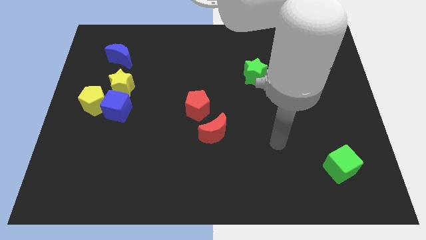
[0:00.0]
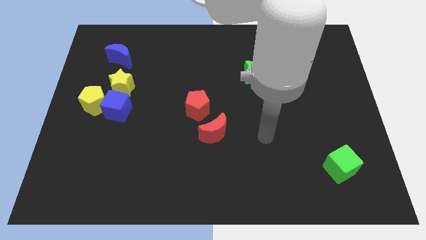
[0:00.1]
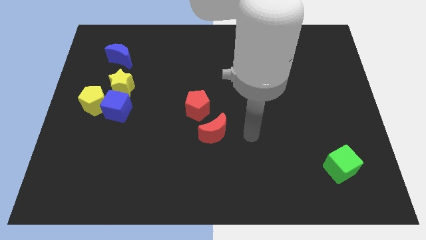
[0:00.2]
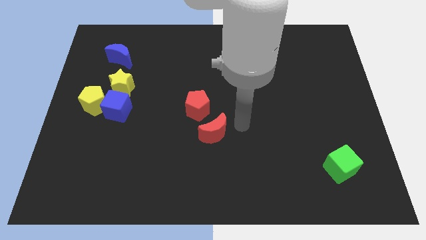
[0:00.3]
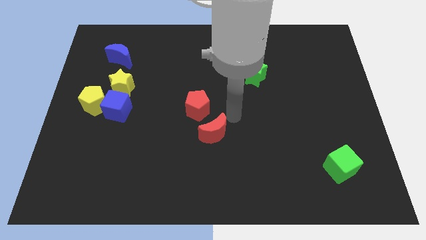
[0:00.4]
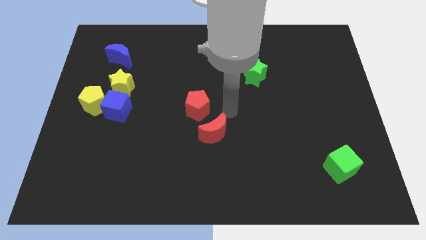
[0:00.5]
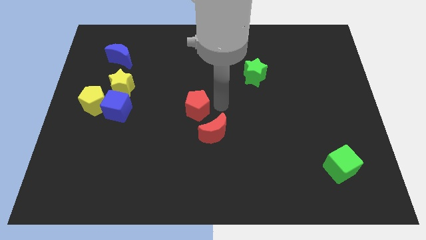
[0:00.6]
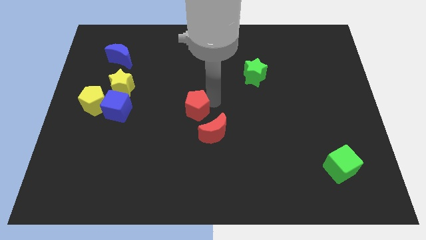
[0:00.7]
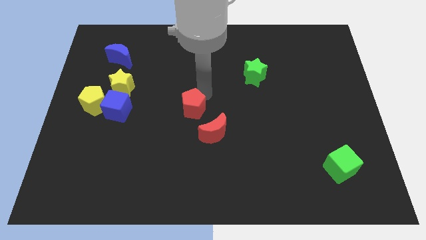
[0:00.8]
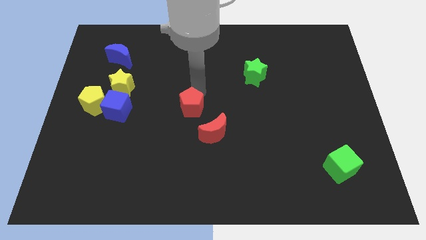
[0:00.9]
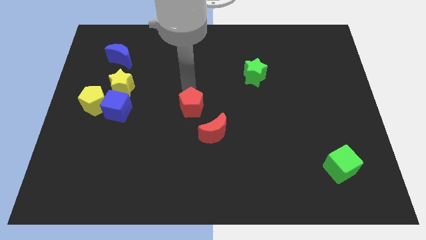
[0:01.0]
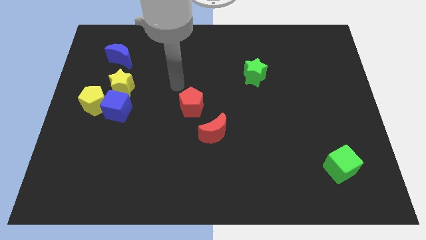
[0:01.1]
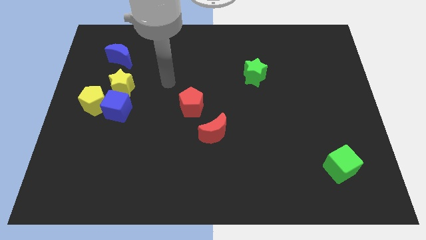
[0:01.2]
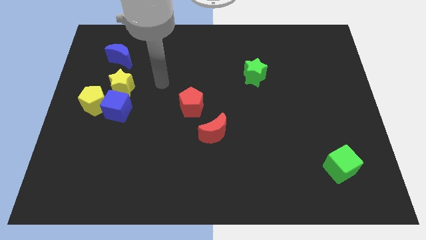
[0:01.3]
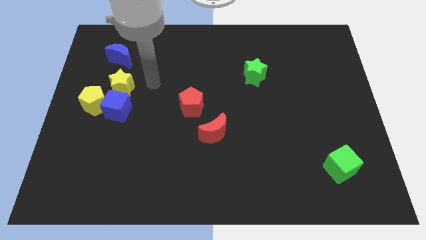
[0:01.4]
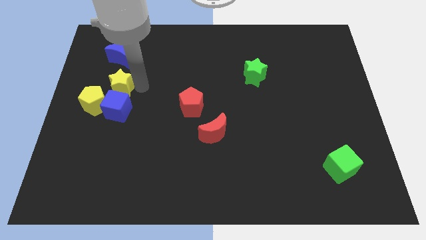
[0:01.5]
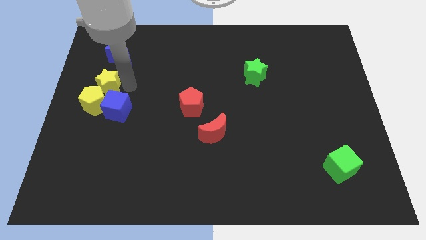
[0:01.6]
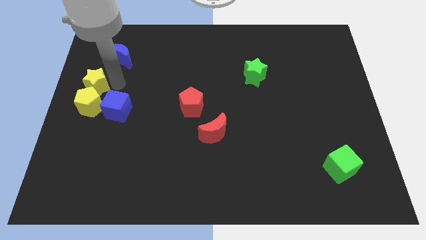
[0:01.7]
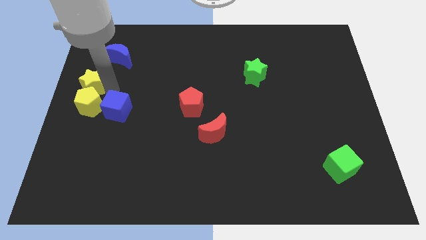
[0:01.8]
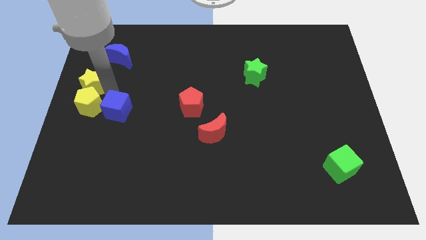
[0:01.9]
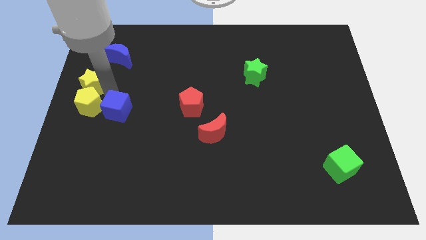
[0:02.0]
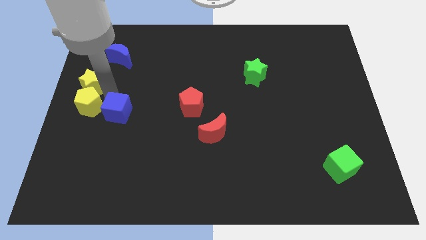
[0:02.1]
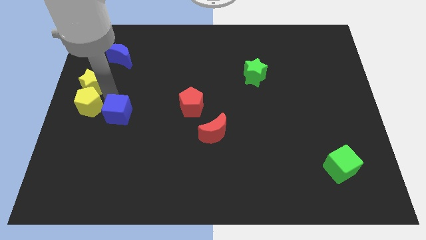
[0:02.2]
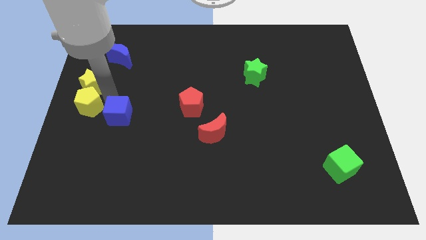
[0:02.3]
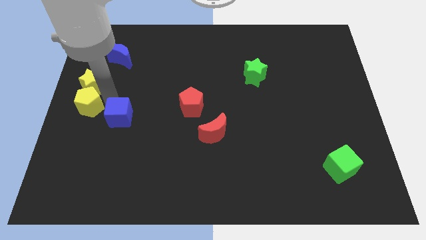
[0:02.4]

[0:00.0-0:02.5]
separate the blue cube from the yellow pentagon and yellow star

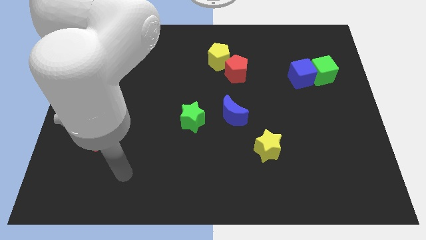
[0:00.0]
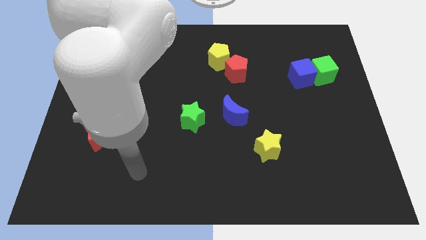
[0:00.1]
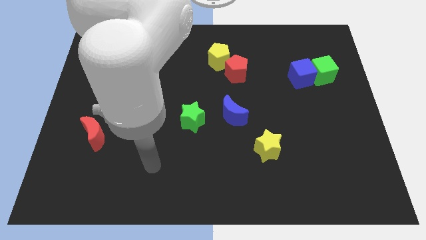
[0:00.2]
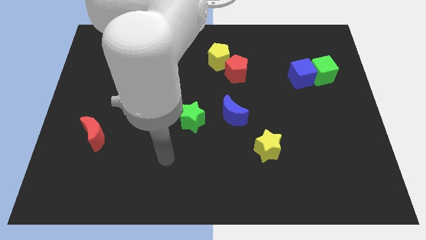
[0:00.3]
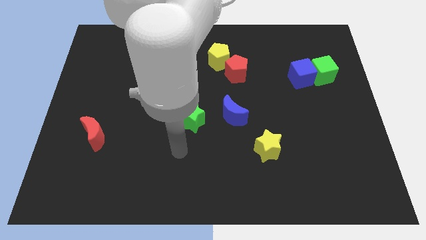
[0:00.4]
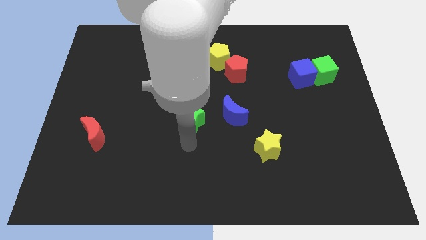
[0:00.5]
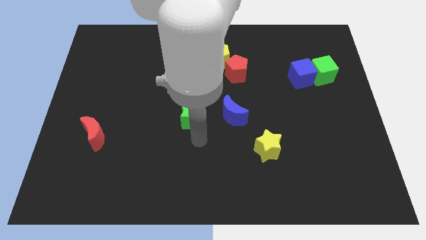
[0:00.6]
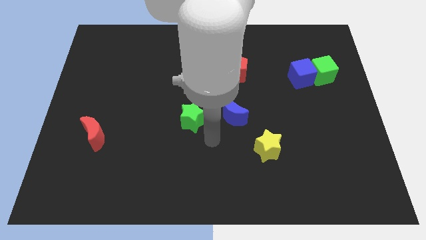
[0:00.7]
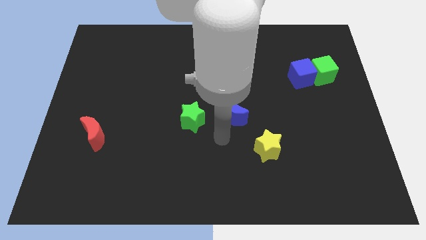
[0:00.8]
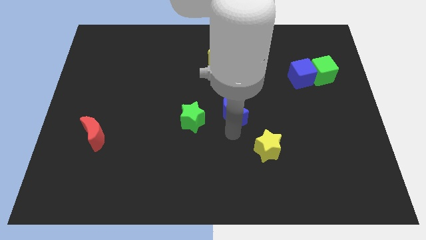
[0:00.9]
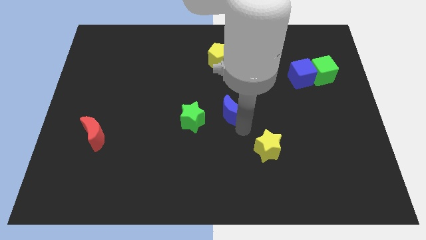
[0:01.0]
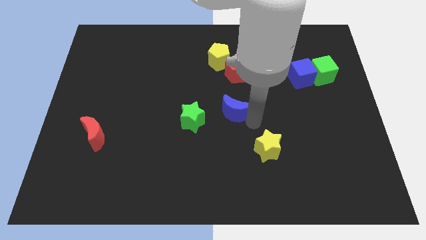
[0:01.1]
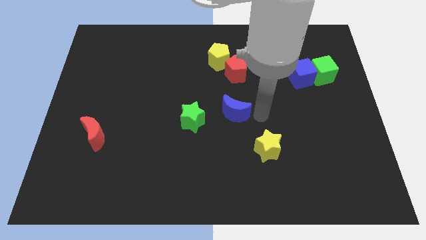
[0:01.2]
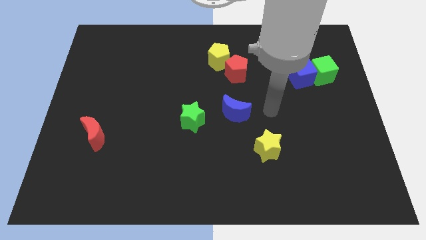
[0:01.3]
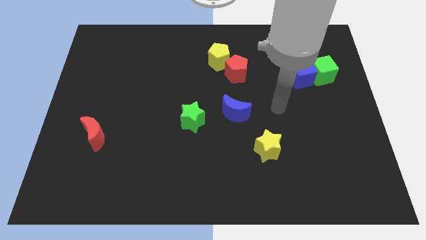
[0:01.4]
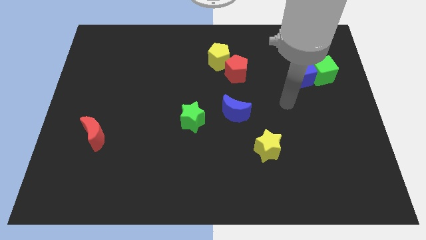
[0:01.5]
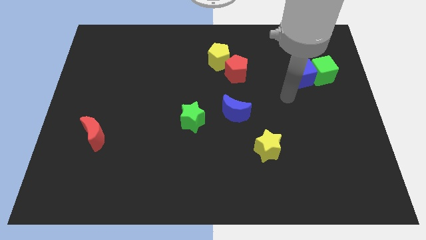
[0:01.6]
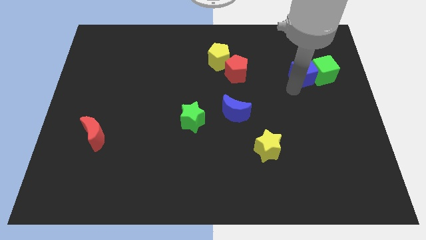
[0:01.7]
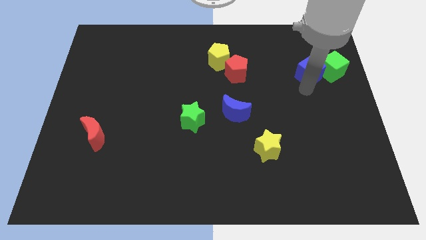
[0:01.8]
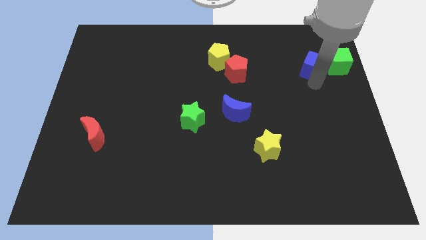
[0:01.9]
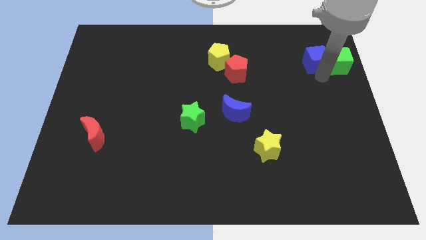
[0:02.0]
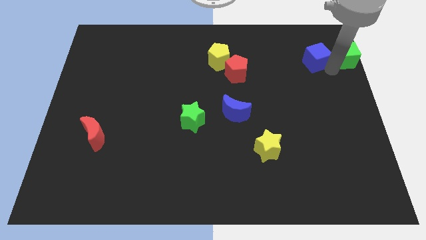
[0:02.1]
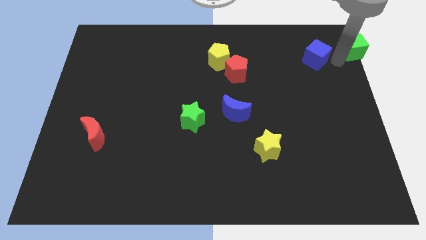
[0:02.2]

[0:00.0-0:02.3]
move the blue cube away from the green cube

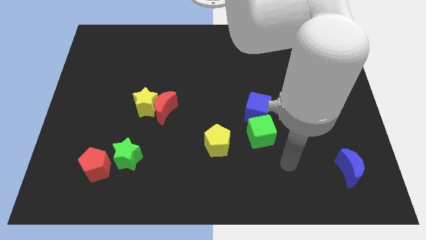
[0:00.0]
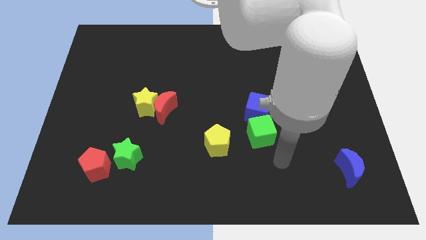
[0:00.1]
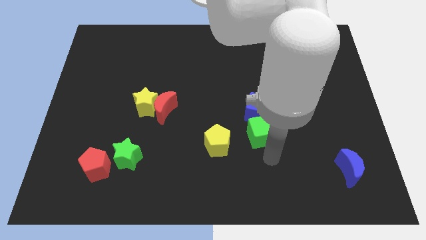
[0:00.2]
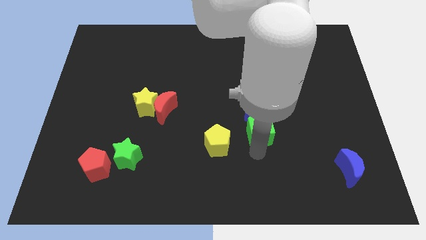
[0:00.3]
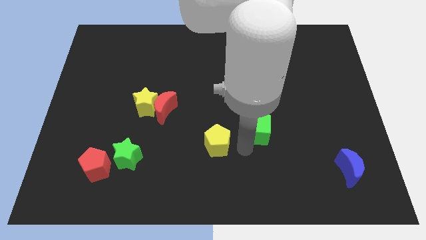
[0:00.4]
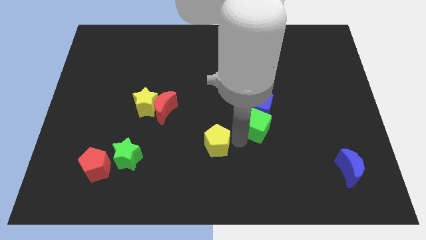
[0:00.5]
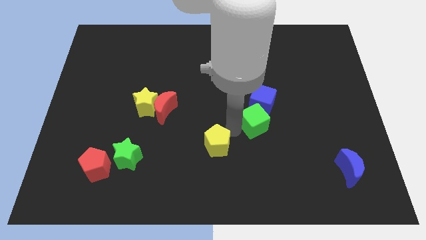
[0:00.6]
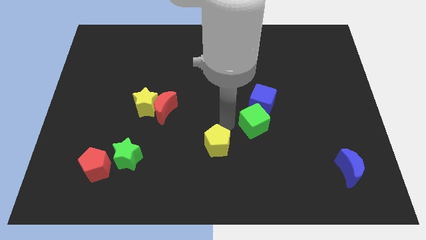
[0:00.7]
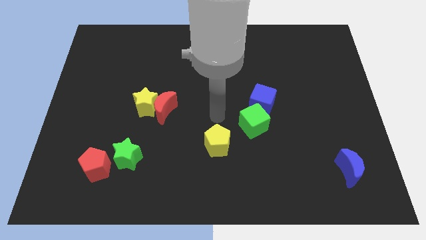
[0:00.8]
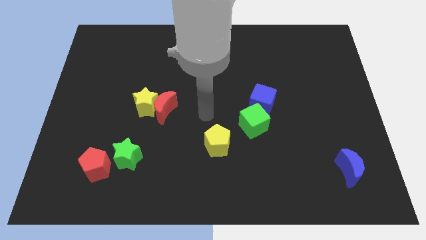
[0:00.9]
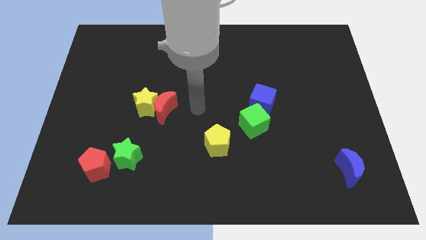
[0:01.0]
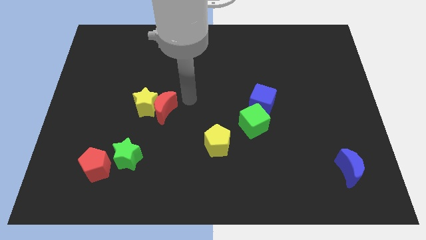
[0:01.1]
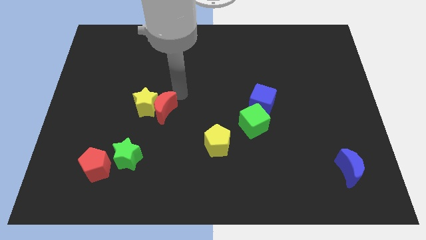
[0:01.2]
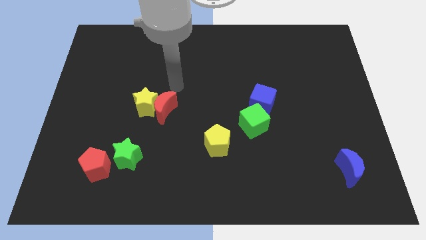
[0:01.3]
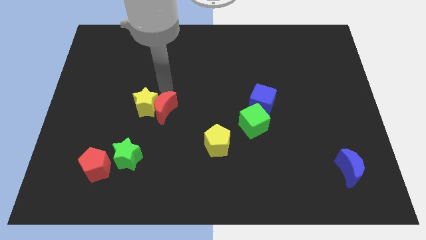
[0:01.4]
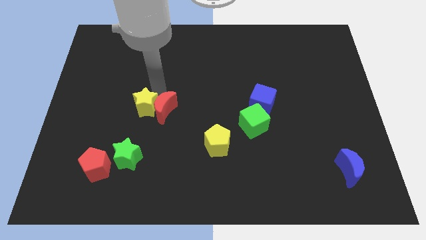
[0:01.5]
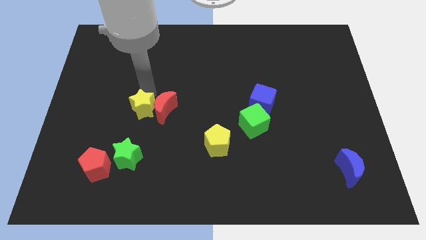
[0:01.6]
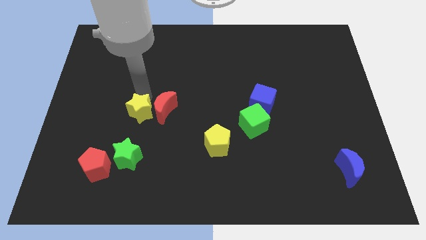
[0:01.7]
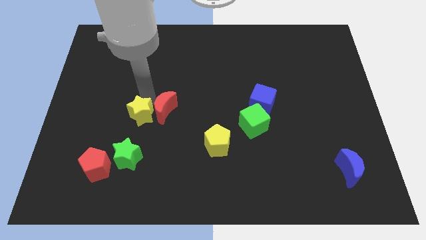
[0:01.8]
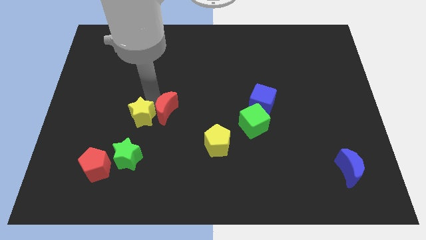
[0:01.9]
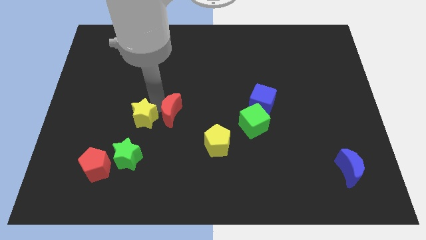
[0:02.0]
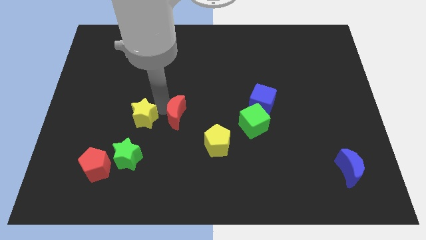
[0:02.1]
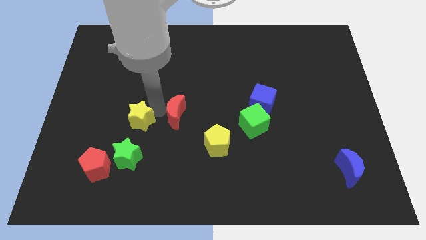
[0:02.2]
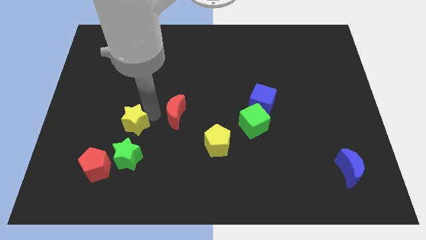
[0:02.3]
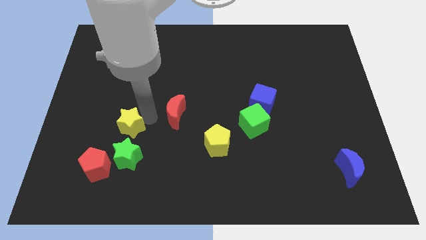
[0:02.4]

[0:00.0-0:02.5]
move the red moon away from the yellow star

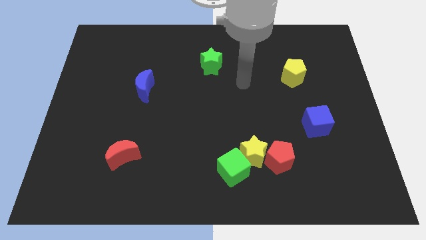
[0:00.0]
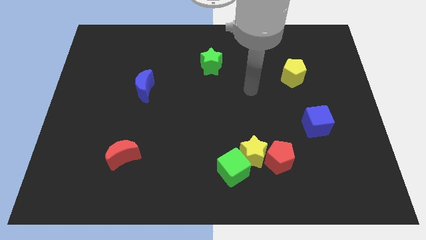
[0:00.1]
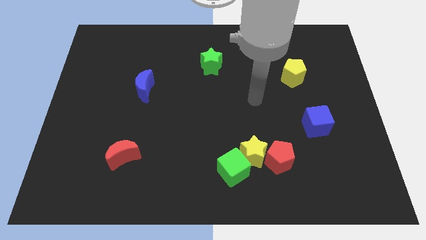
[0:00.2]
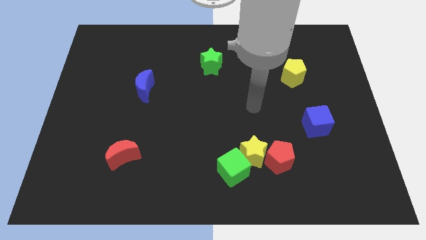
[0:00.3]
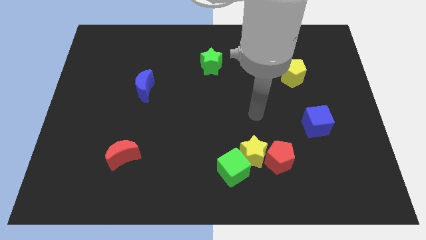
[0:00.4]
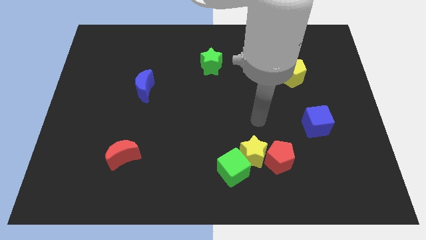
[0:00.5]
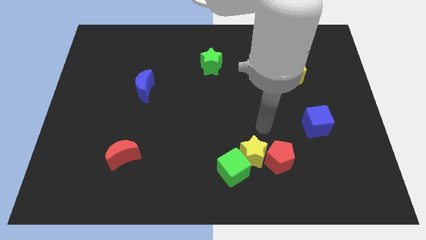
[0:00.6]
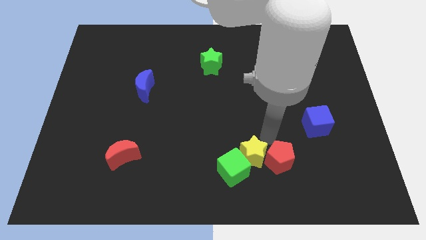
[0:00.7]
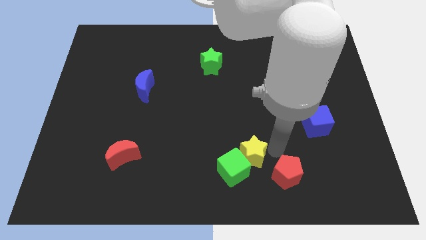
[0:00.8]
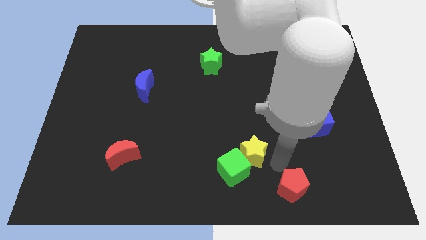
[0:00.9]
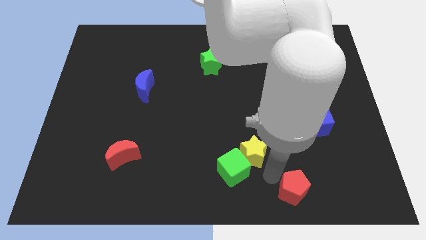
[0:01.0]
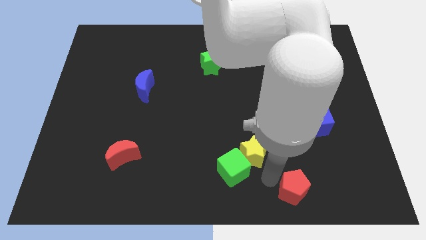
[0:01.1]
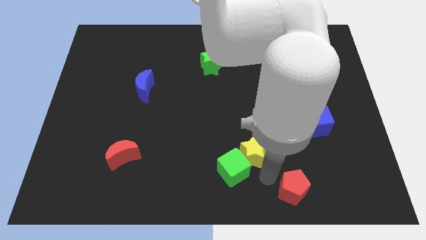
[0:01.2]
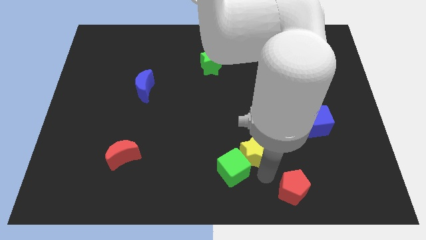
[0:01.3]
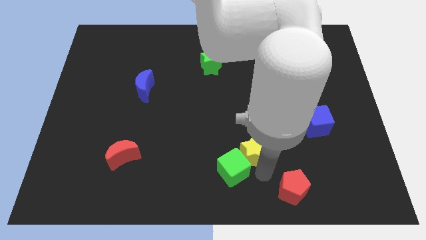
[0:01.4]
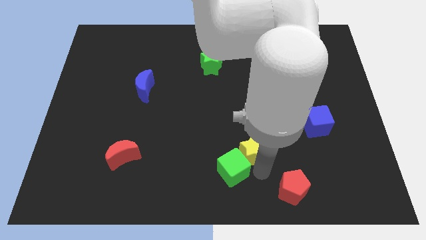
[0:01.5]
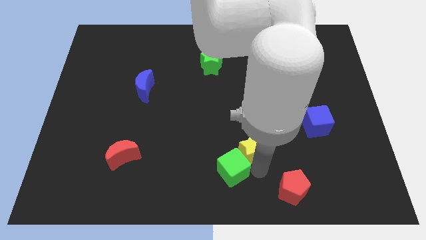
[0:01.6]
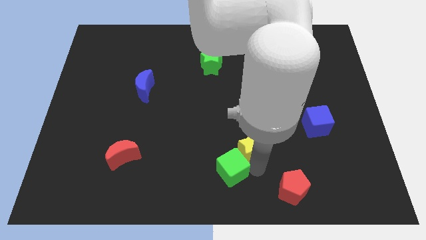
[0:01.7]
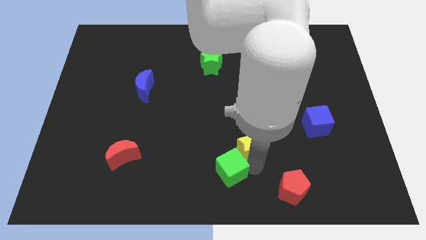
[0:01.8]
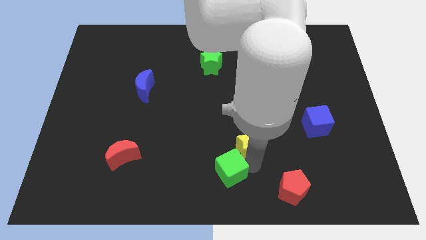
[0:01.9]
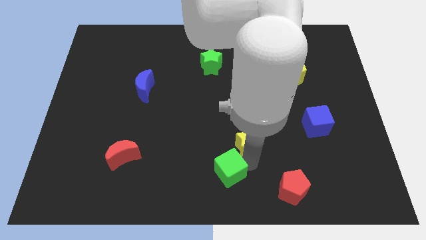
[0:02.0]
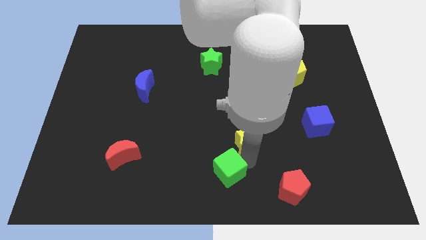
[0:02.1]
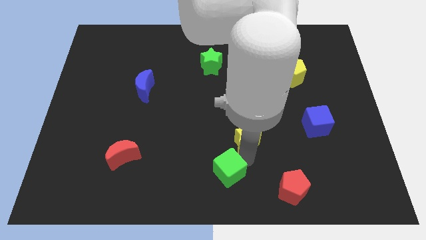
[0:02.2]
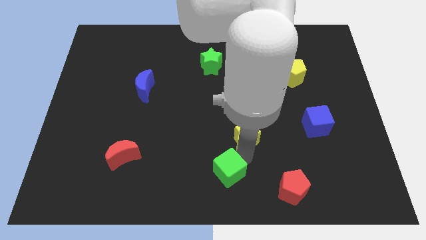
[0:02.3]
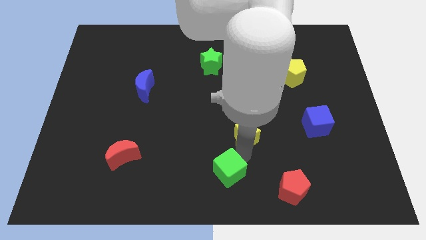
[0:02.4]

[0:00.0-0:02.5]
separate the yellow star from the green cube and red pentagon
